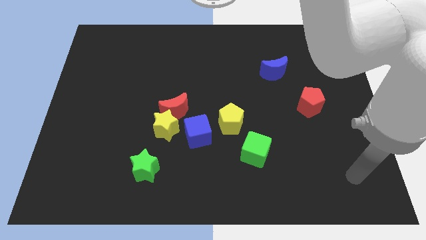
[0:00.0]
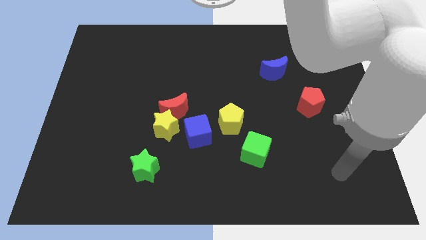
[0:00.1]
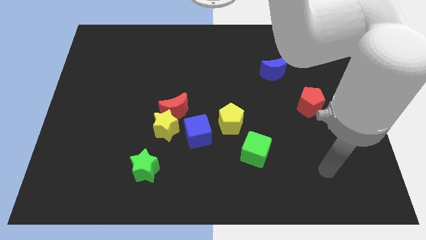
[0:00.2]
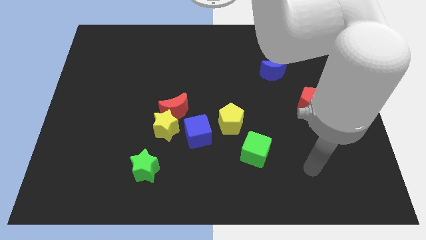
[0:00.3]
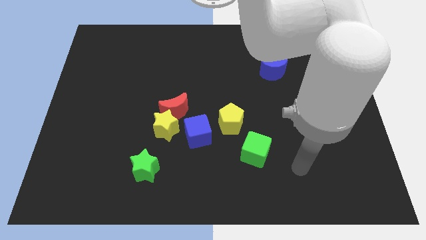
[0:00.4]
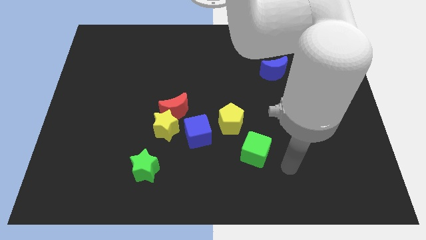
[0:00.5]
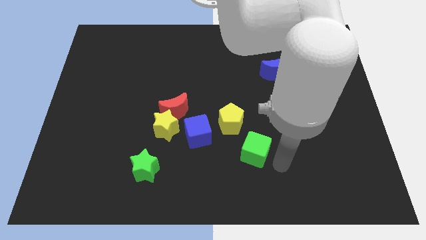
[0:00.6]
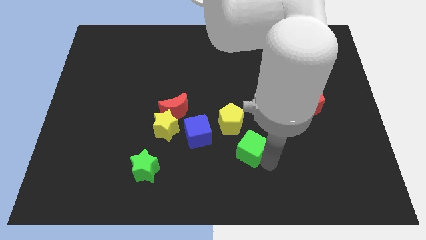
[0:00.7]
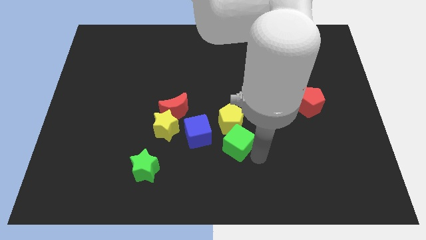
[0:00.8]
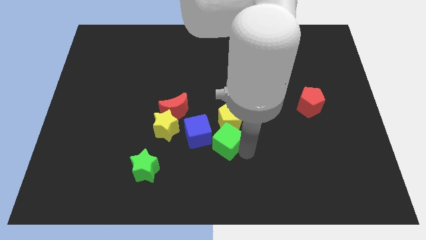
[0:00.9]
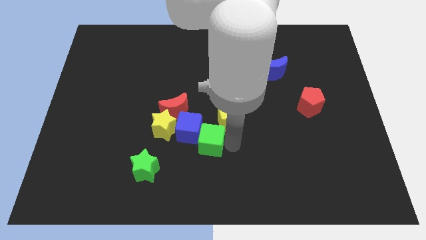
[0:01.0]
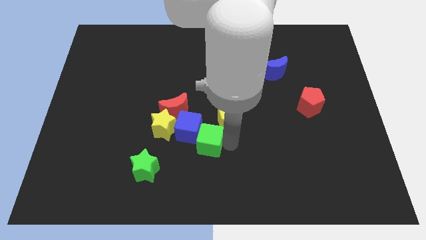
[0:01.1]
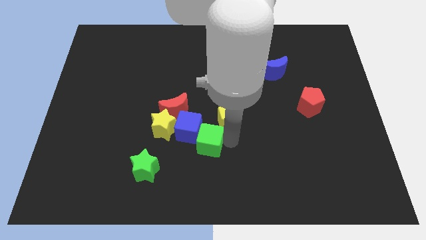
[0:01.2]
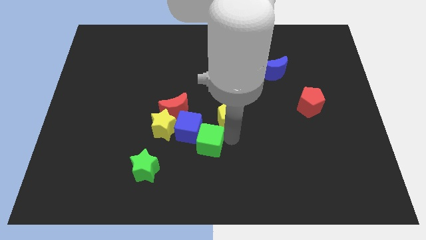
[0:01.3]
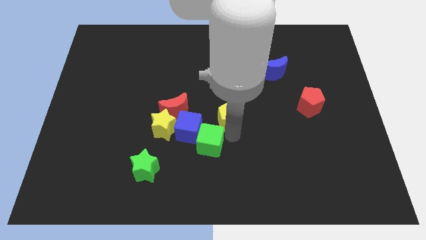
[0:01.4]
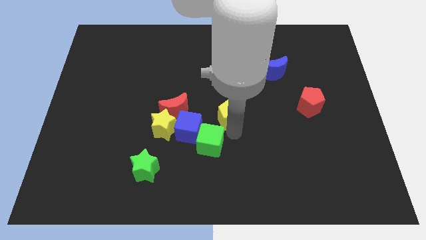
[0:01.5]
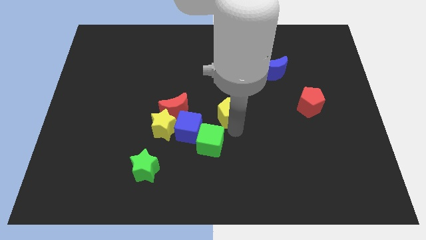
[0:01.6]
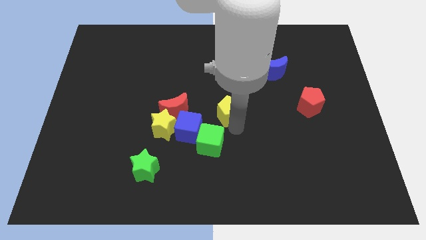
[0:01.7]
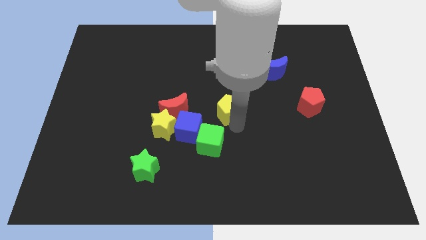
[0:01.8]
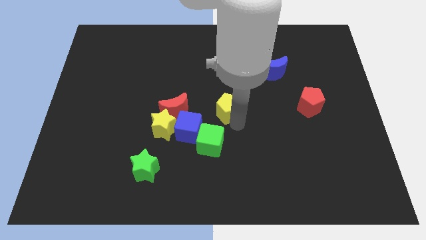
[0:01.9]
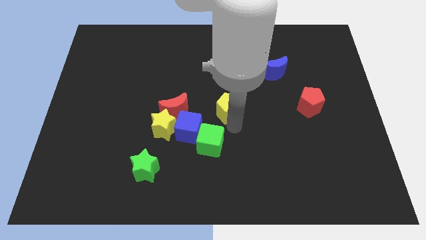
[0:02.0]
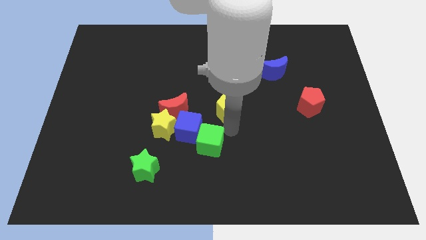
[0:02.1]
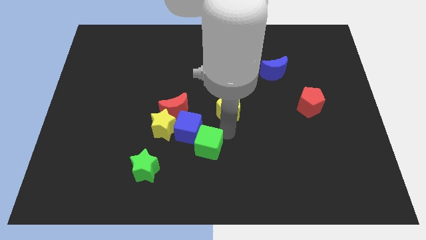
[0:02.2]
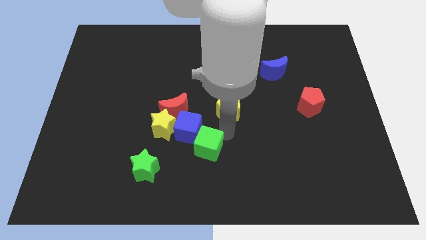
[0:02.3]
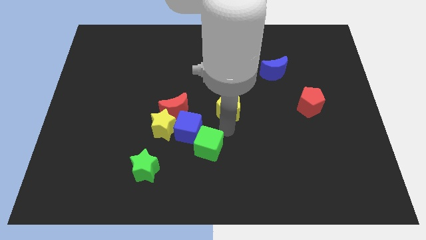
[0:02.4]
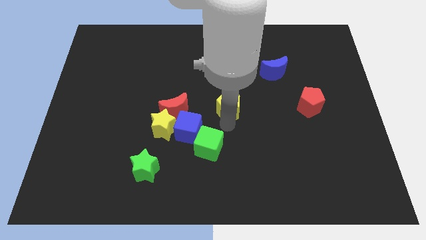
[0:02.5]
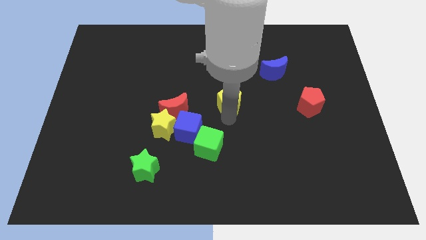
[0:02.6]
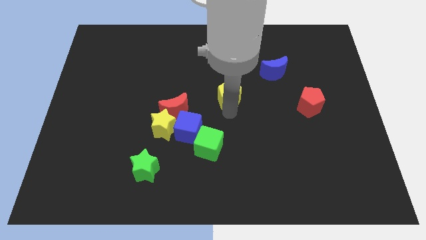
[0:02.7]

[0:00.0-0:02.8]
push the yellow pentagon a little upwards

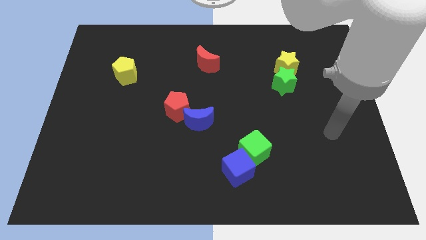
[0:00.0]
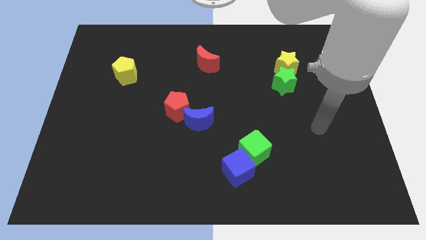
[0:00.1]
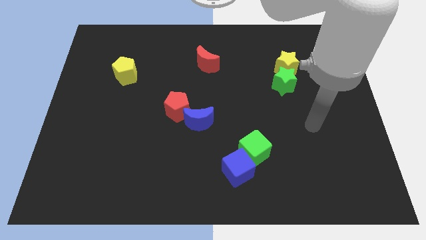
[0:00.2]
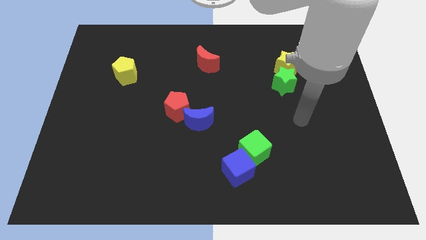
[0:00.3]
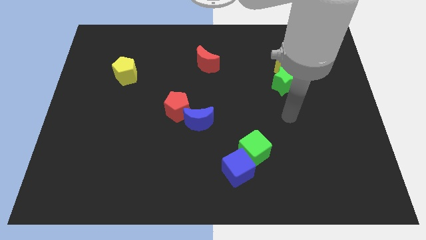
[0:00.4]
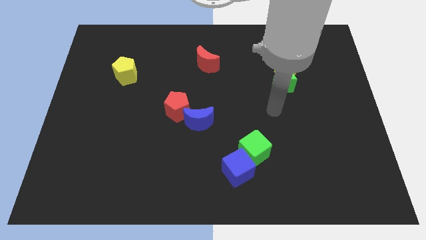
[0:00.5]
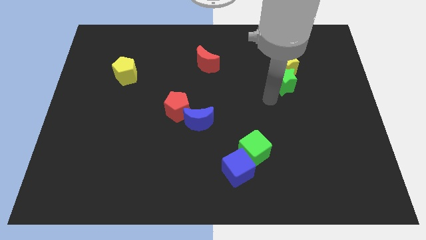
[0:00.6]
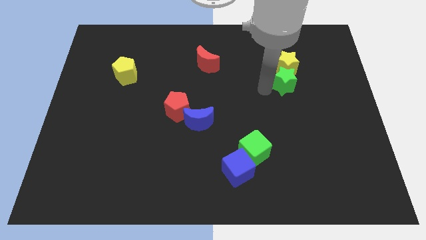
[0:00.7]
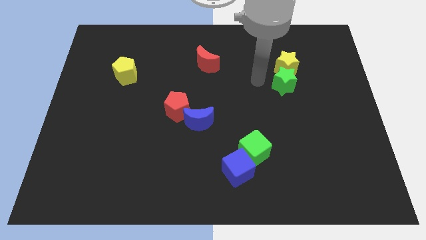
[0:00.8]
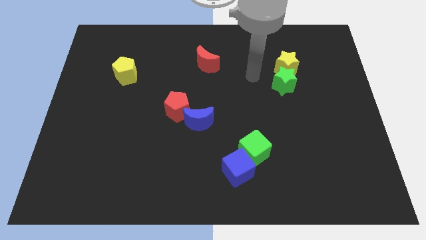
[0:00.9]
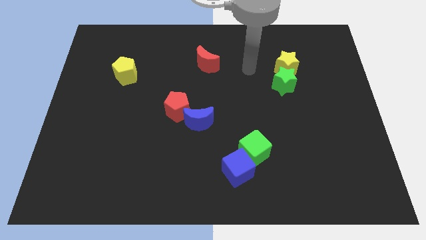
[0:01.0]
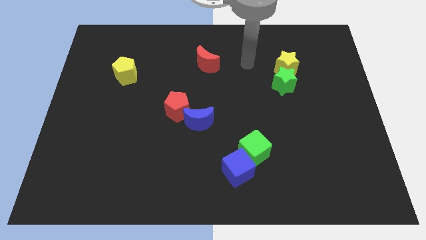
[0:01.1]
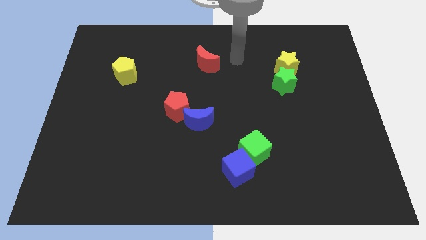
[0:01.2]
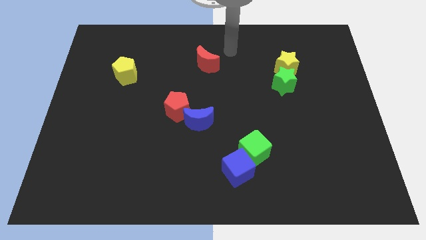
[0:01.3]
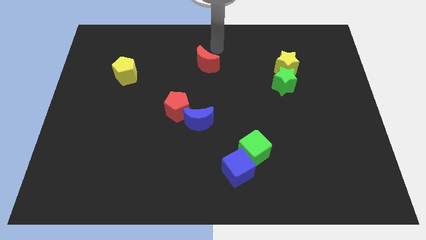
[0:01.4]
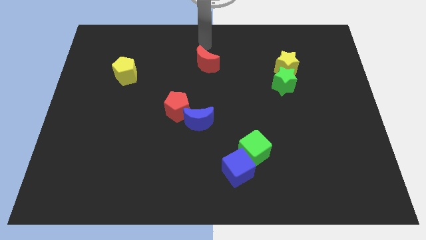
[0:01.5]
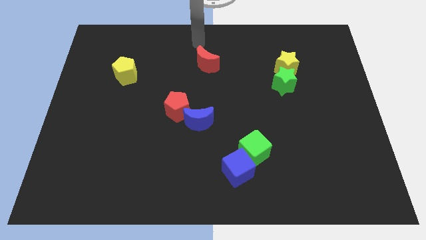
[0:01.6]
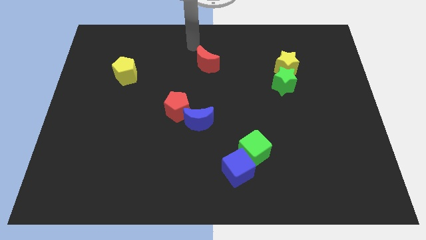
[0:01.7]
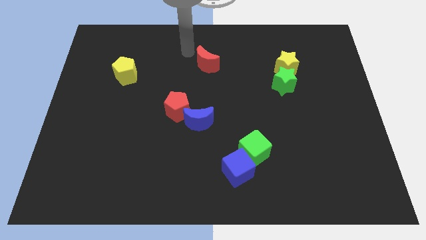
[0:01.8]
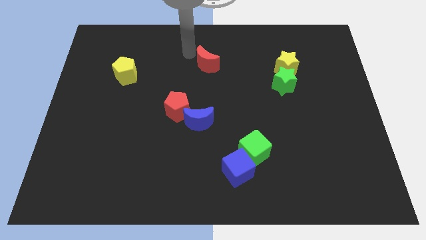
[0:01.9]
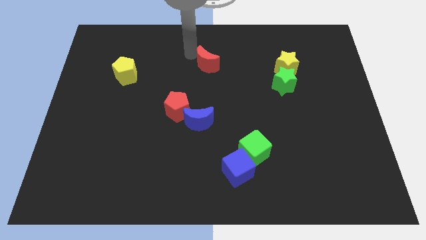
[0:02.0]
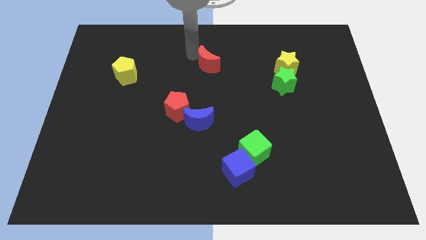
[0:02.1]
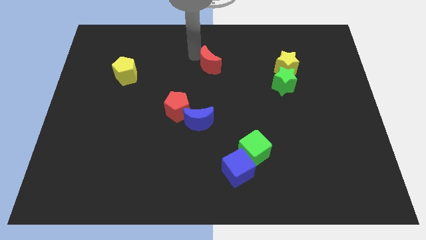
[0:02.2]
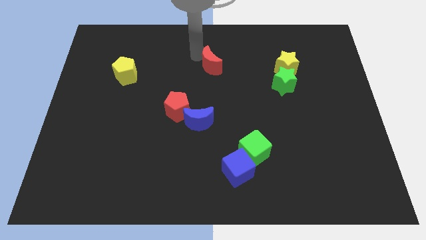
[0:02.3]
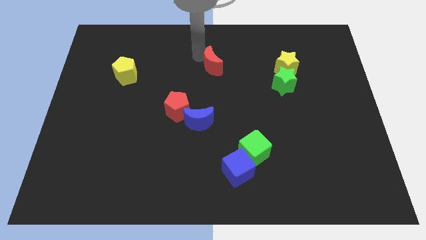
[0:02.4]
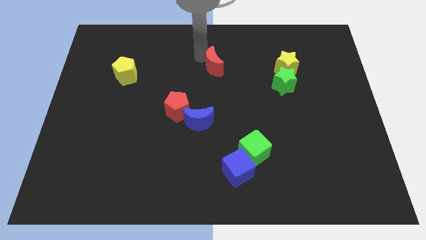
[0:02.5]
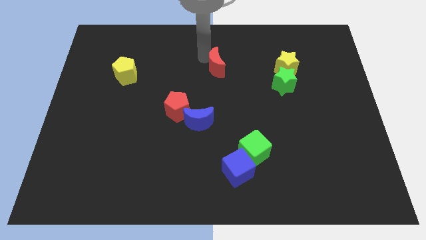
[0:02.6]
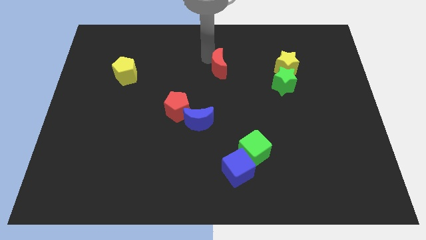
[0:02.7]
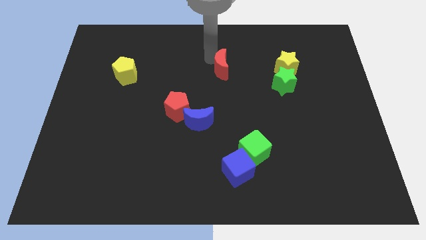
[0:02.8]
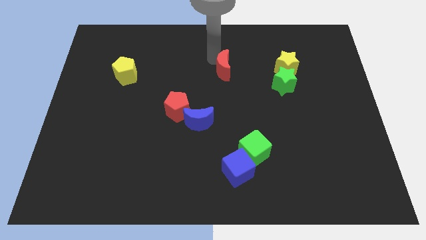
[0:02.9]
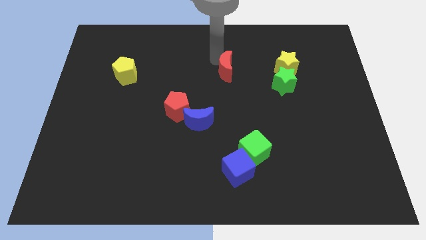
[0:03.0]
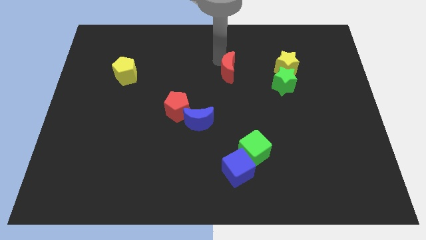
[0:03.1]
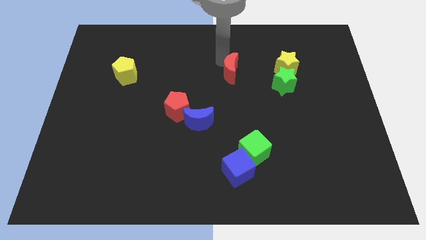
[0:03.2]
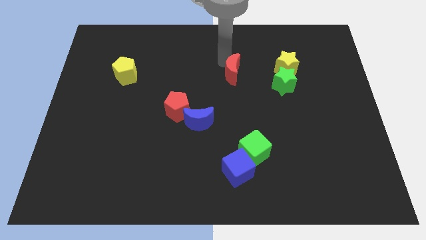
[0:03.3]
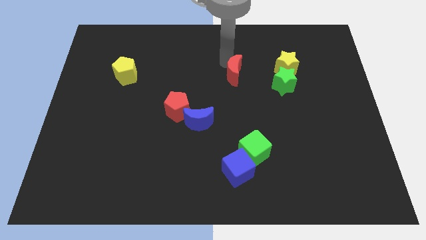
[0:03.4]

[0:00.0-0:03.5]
slightly slide the red moon diagonally down and to the right

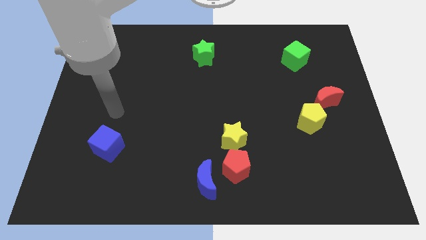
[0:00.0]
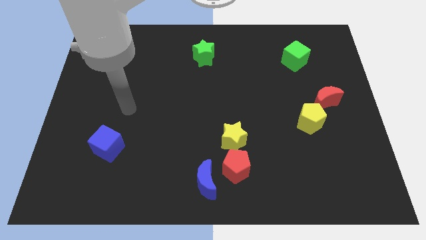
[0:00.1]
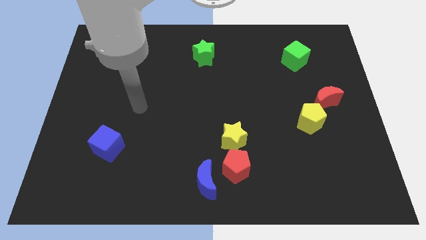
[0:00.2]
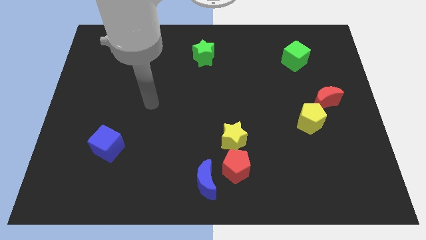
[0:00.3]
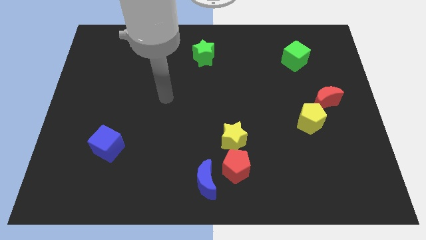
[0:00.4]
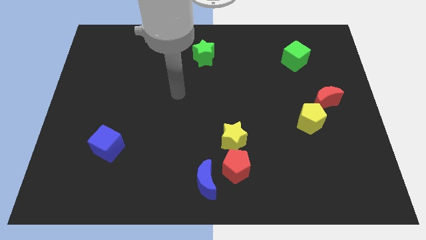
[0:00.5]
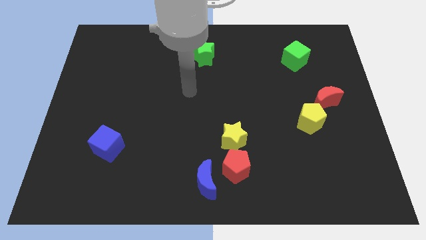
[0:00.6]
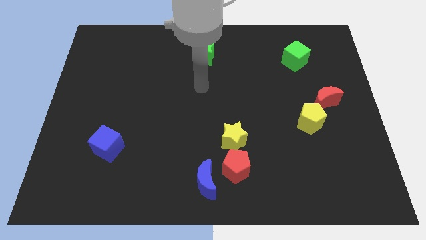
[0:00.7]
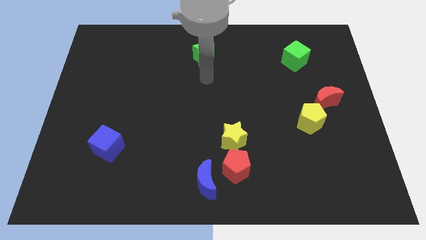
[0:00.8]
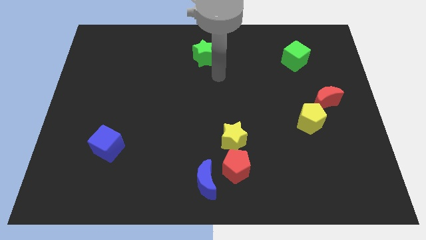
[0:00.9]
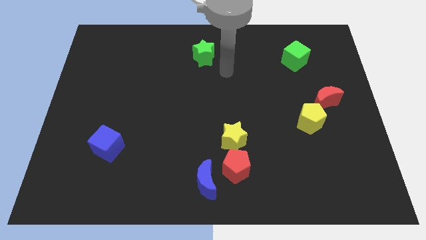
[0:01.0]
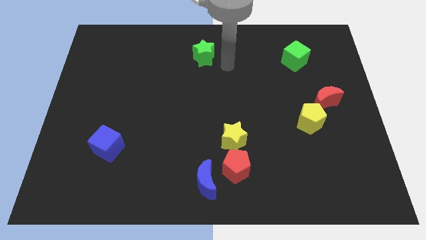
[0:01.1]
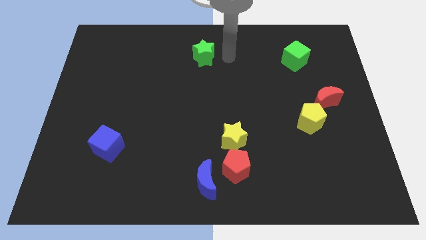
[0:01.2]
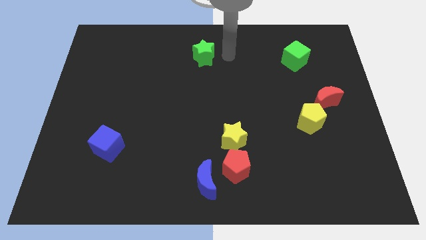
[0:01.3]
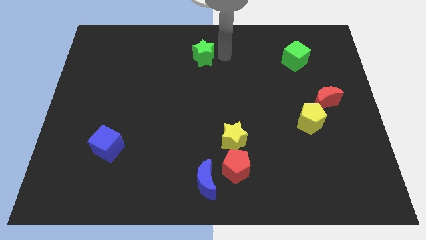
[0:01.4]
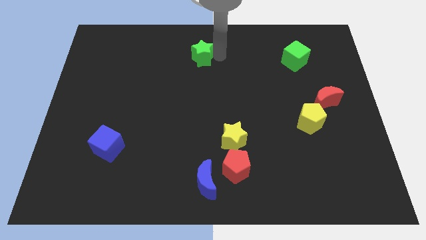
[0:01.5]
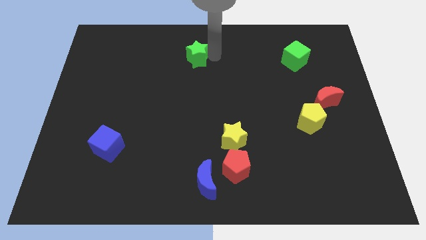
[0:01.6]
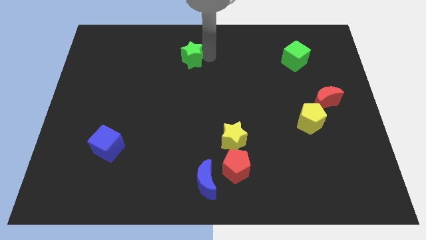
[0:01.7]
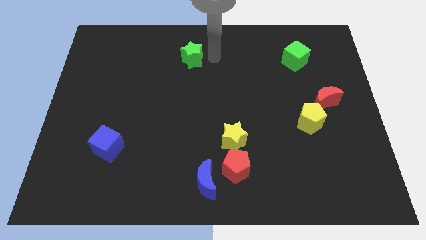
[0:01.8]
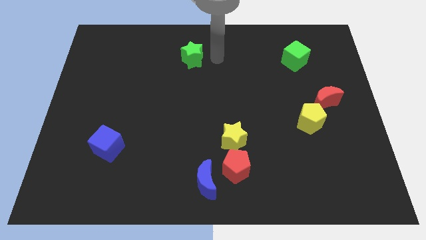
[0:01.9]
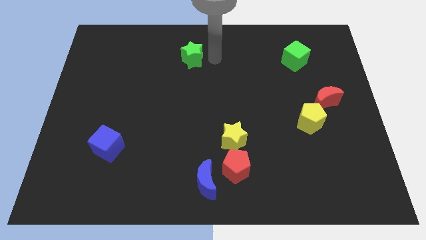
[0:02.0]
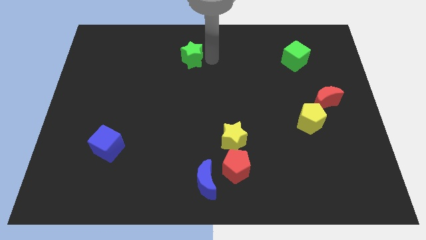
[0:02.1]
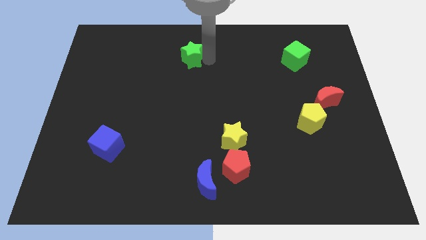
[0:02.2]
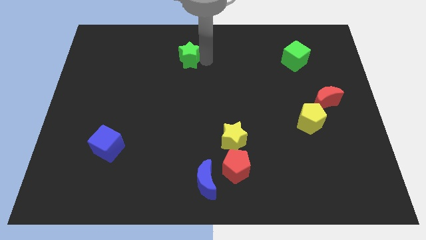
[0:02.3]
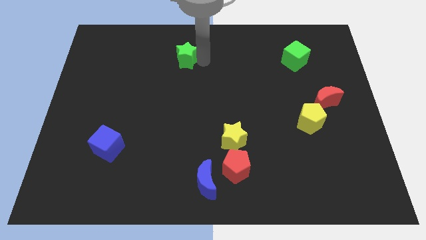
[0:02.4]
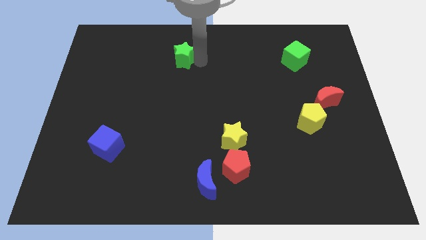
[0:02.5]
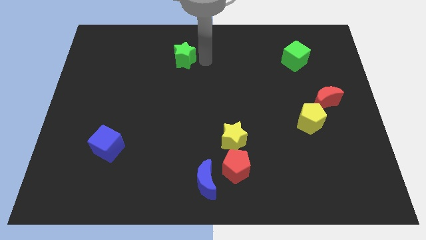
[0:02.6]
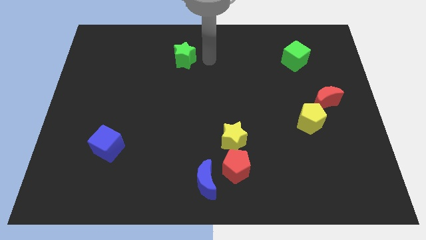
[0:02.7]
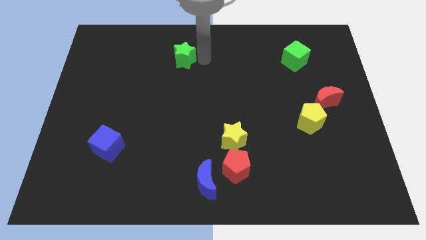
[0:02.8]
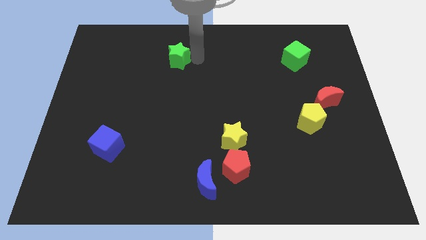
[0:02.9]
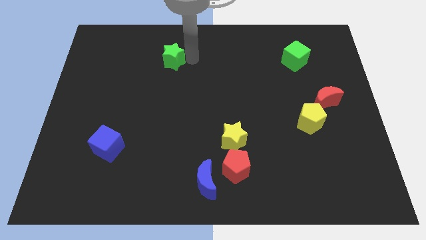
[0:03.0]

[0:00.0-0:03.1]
move the green star to the left a little
